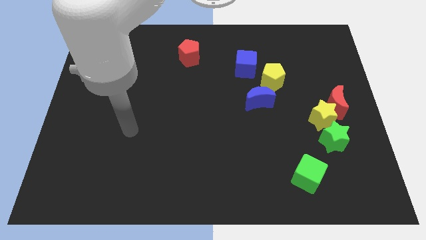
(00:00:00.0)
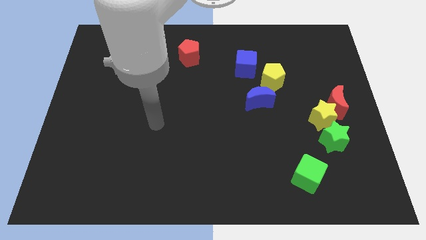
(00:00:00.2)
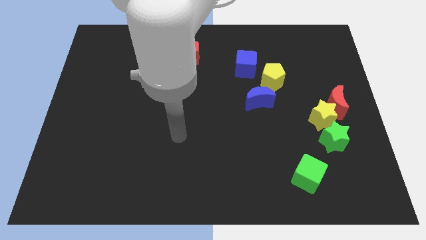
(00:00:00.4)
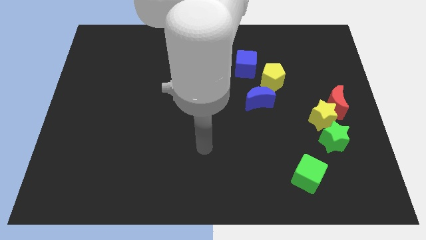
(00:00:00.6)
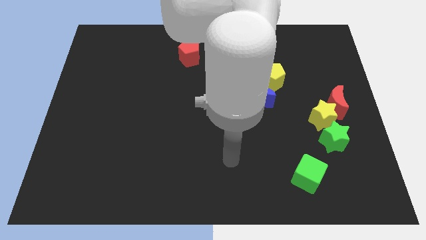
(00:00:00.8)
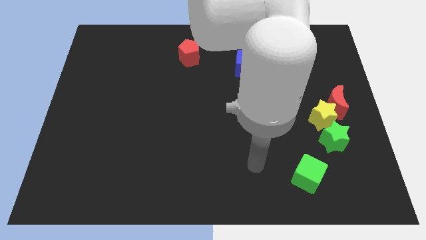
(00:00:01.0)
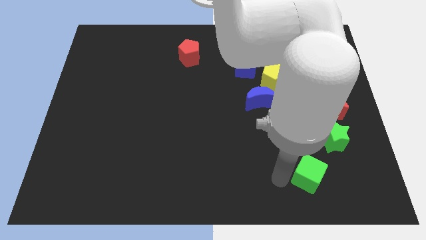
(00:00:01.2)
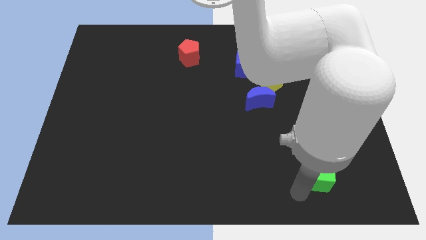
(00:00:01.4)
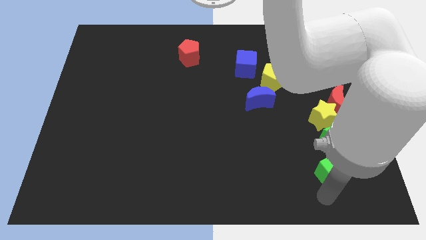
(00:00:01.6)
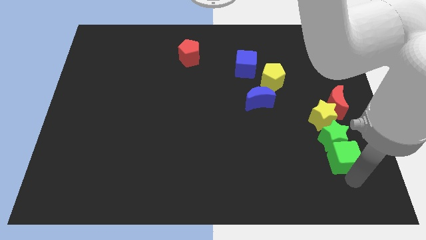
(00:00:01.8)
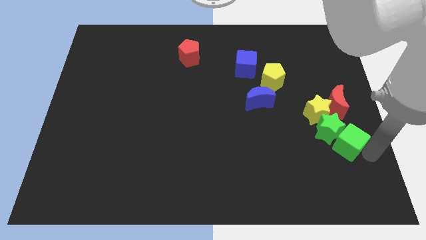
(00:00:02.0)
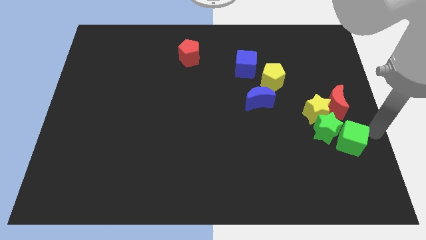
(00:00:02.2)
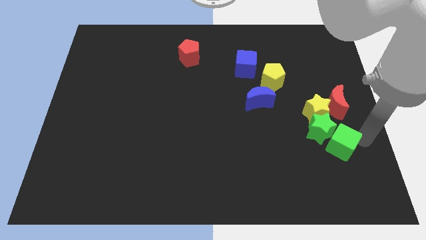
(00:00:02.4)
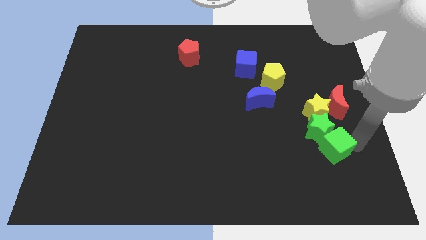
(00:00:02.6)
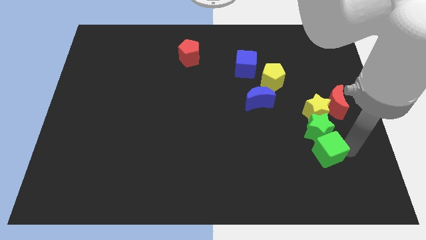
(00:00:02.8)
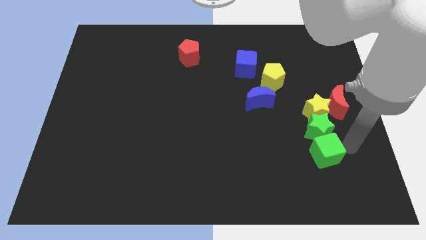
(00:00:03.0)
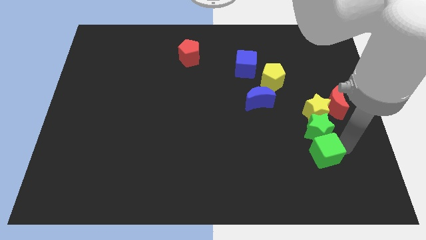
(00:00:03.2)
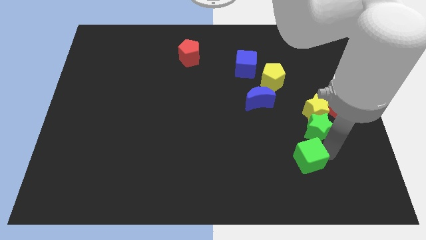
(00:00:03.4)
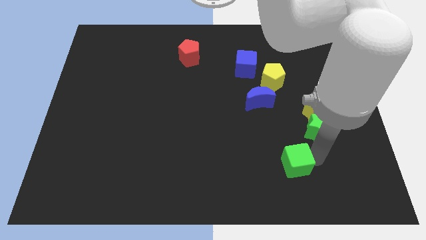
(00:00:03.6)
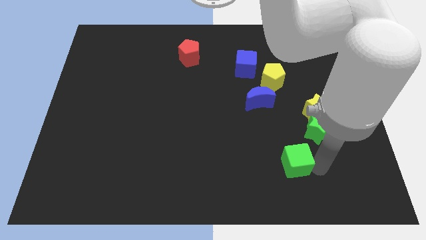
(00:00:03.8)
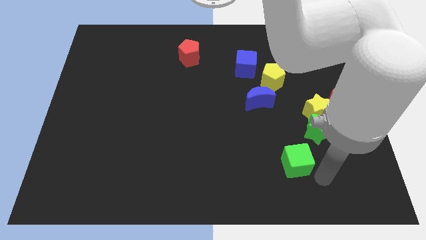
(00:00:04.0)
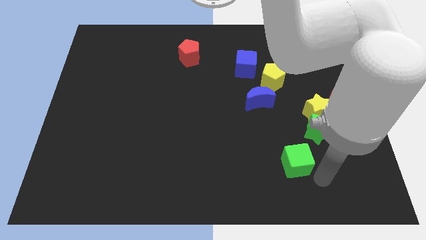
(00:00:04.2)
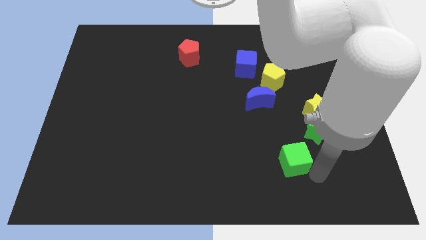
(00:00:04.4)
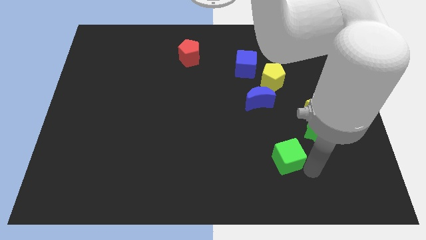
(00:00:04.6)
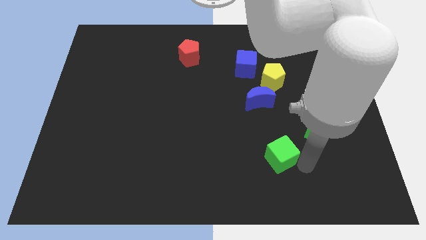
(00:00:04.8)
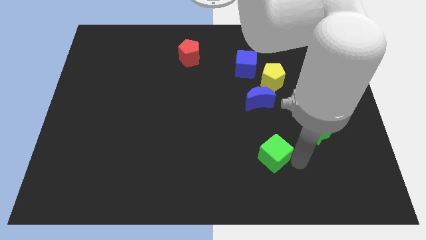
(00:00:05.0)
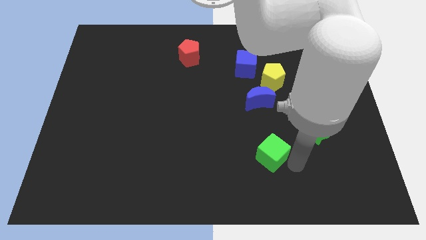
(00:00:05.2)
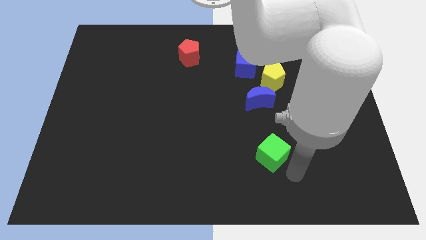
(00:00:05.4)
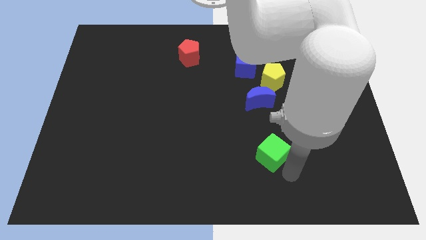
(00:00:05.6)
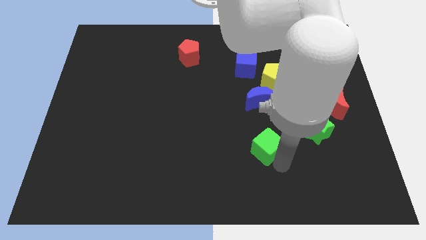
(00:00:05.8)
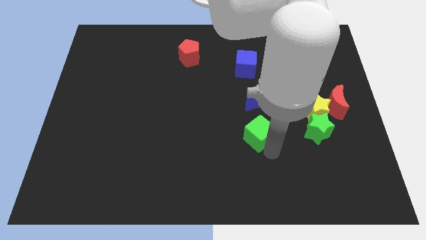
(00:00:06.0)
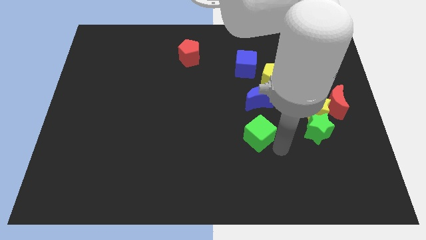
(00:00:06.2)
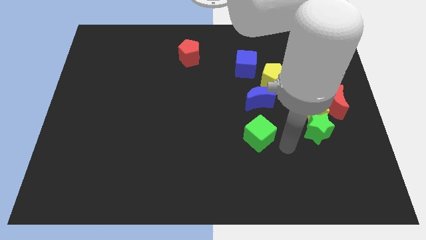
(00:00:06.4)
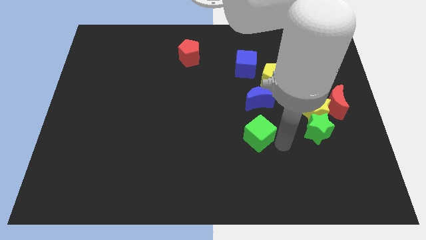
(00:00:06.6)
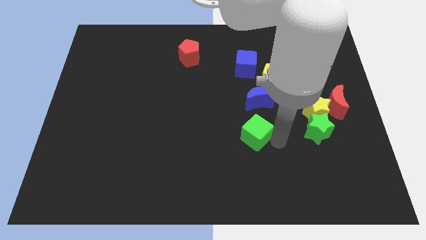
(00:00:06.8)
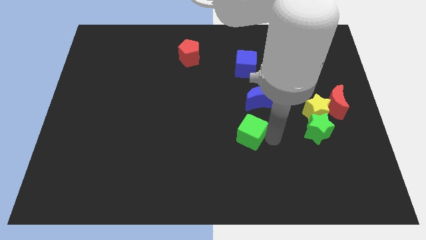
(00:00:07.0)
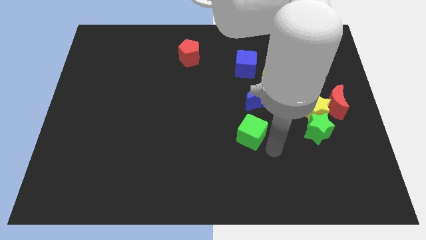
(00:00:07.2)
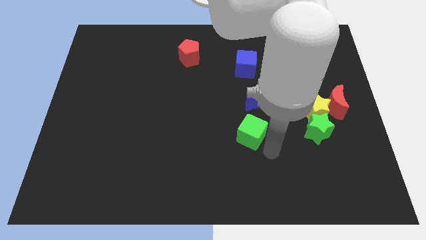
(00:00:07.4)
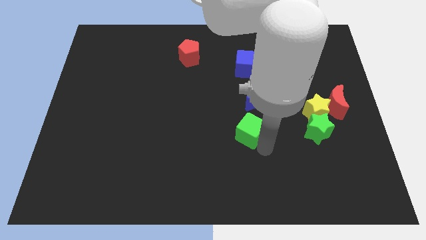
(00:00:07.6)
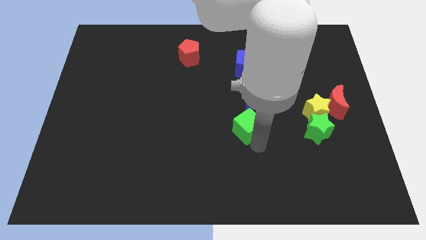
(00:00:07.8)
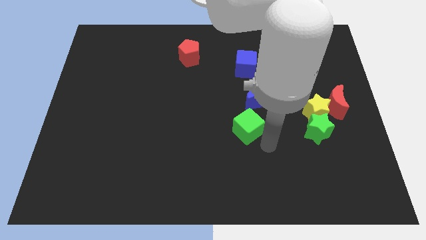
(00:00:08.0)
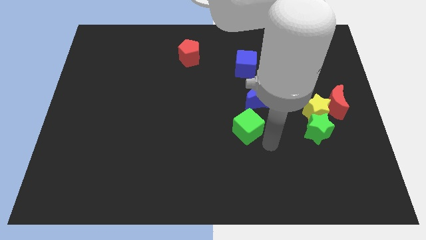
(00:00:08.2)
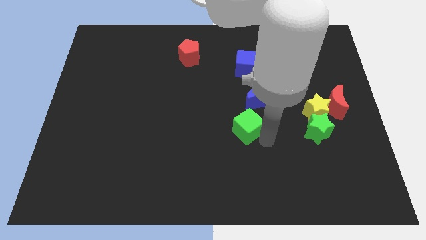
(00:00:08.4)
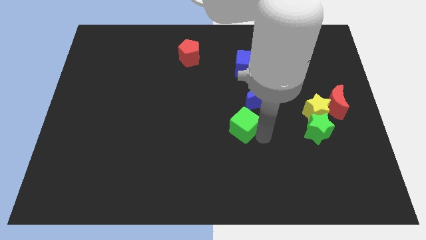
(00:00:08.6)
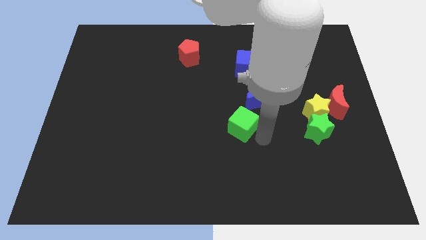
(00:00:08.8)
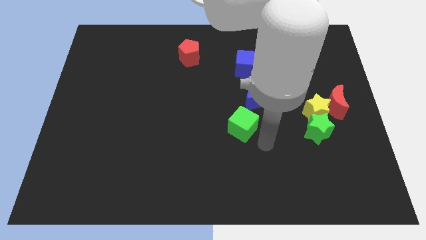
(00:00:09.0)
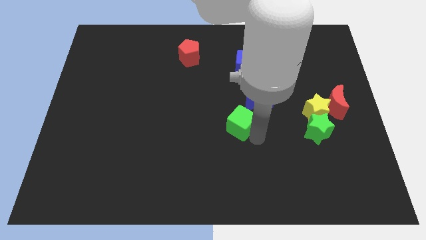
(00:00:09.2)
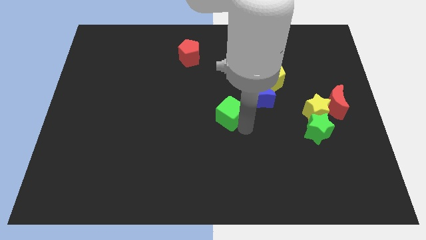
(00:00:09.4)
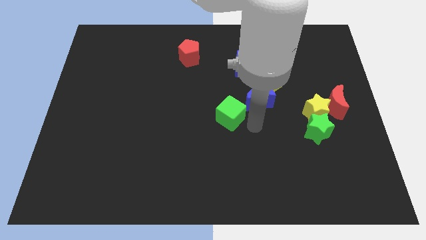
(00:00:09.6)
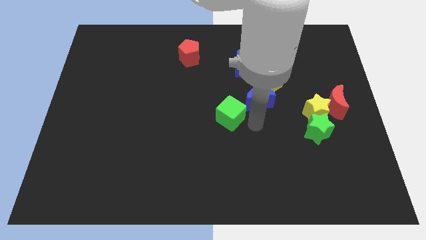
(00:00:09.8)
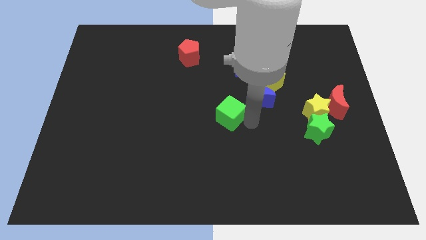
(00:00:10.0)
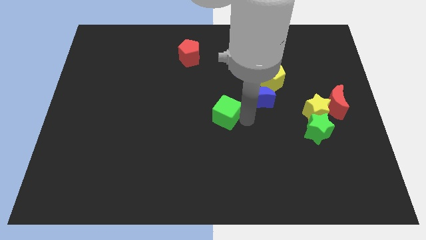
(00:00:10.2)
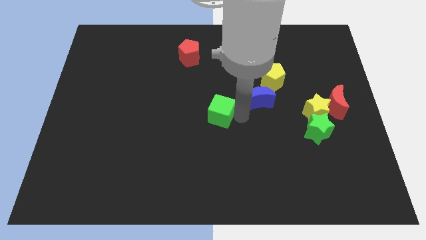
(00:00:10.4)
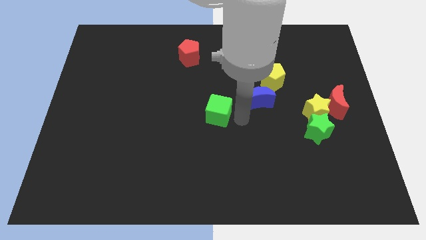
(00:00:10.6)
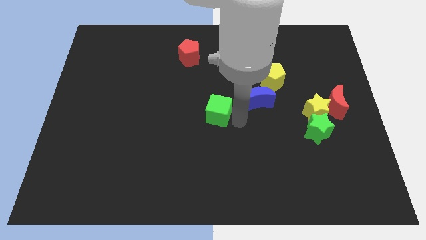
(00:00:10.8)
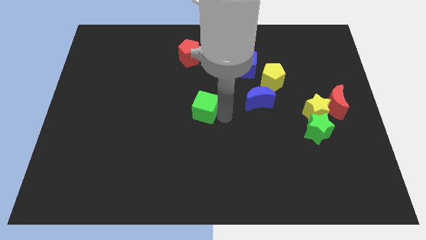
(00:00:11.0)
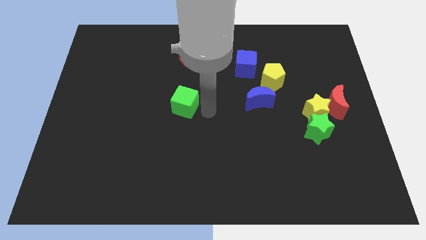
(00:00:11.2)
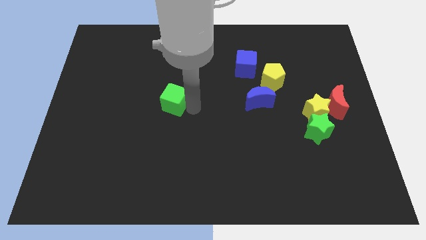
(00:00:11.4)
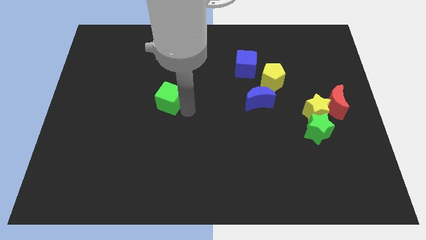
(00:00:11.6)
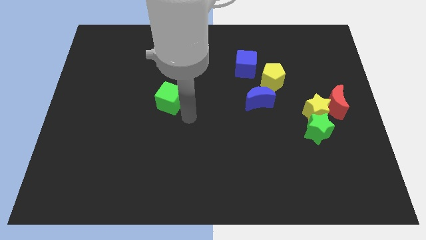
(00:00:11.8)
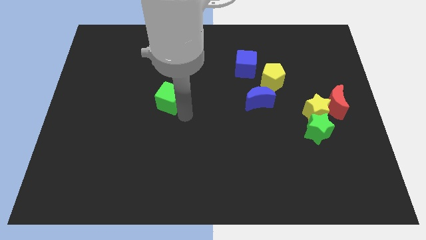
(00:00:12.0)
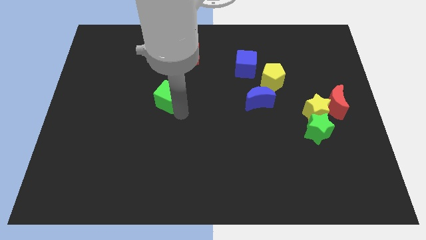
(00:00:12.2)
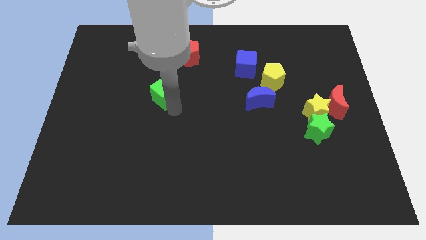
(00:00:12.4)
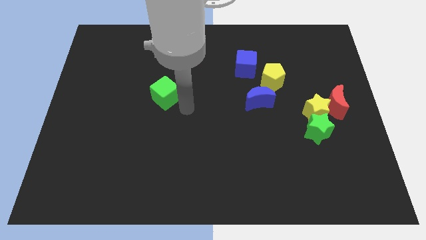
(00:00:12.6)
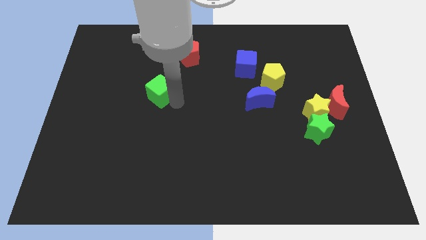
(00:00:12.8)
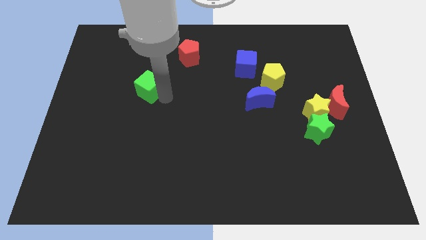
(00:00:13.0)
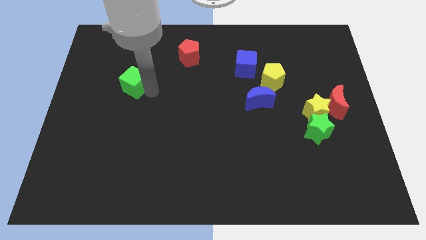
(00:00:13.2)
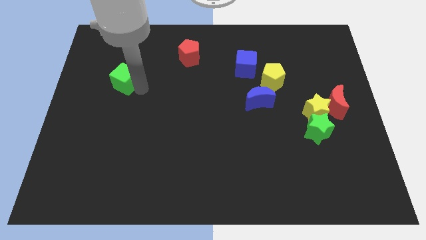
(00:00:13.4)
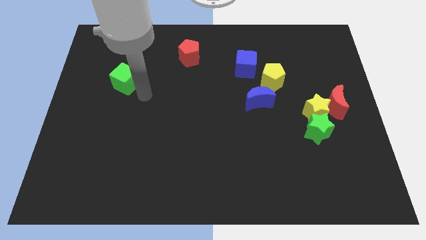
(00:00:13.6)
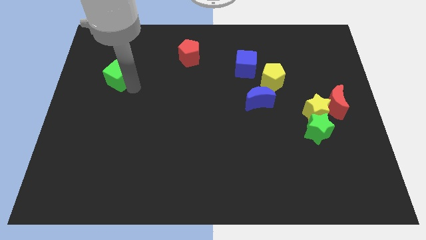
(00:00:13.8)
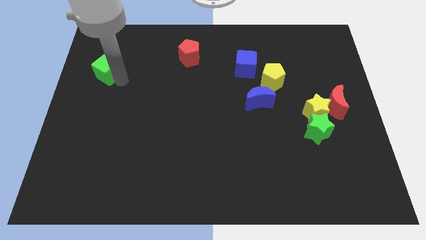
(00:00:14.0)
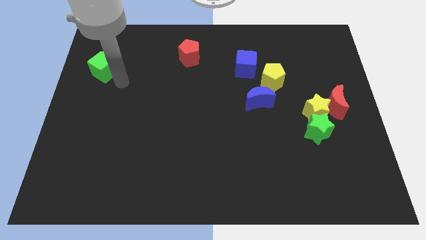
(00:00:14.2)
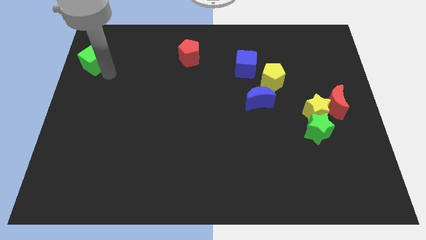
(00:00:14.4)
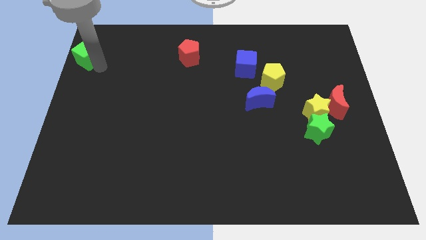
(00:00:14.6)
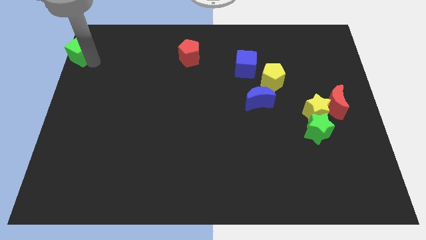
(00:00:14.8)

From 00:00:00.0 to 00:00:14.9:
push the green cube to the upper left corner
